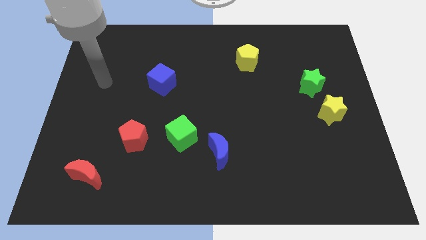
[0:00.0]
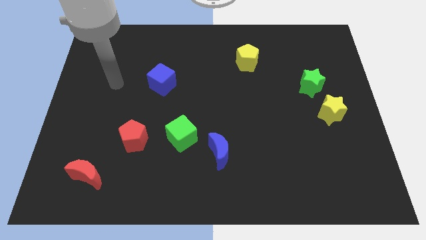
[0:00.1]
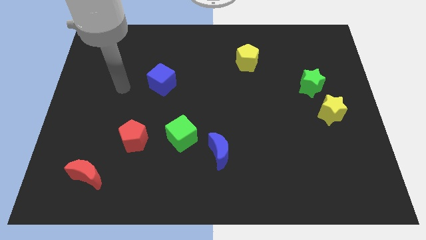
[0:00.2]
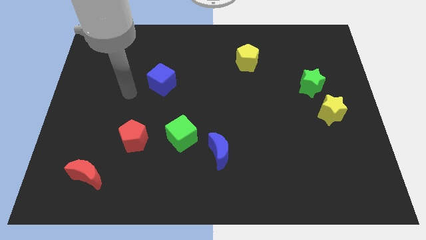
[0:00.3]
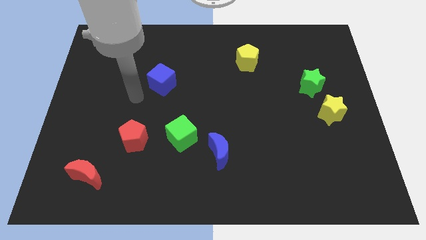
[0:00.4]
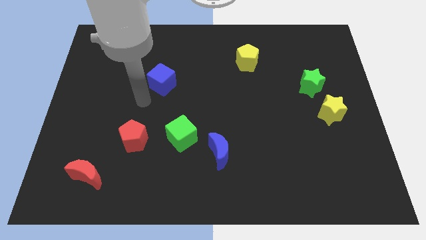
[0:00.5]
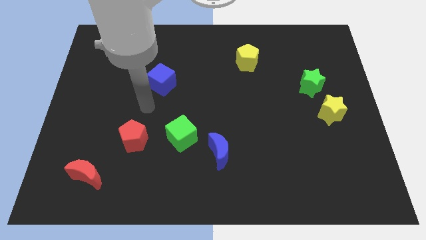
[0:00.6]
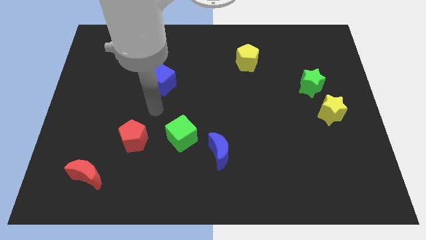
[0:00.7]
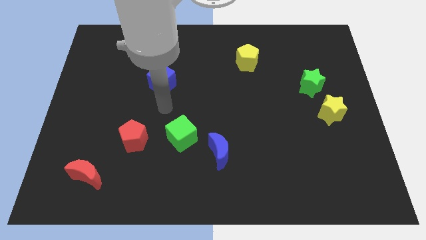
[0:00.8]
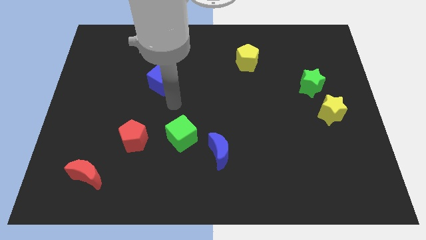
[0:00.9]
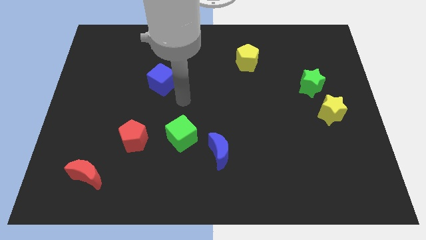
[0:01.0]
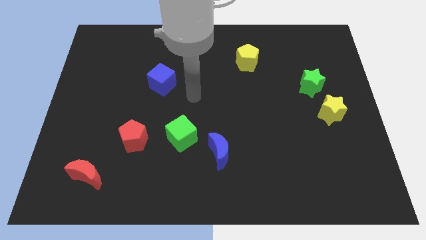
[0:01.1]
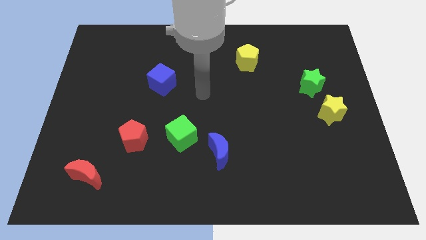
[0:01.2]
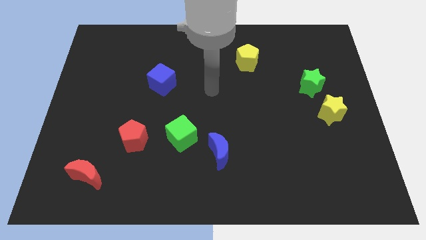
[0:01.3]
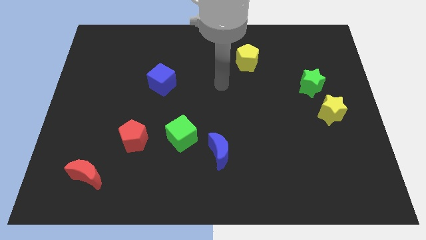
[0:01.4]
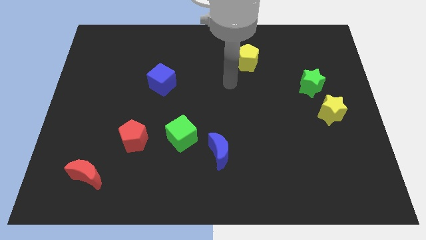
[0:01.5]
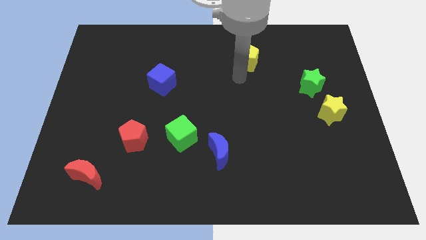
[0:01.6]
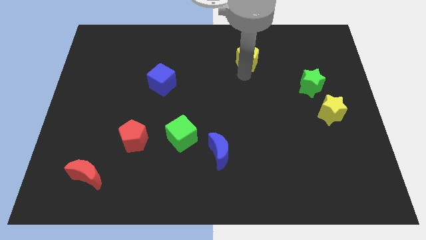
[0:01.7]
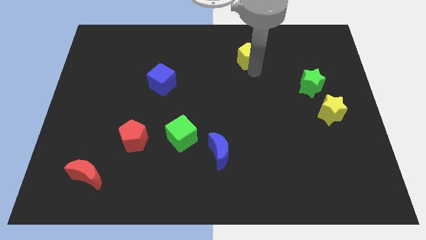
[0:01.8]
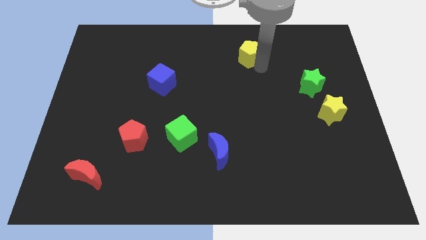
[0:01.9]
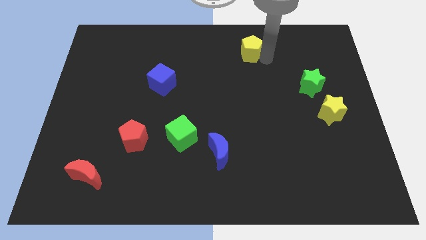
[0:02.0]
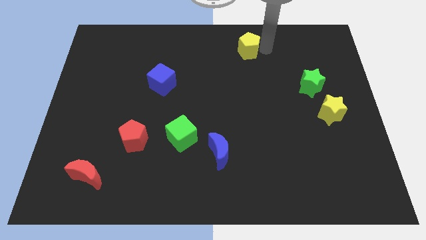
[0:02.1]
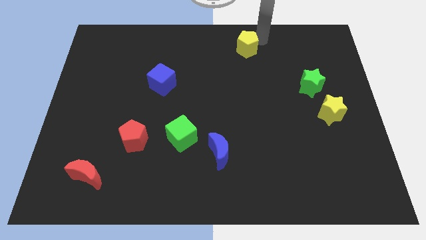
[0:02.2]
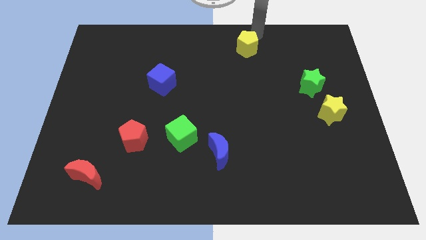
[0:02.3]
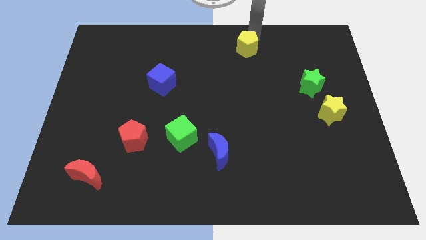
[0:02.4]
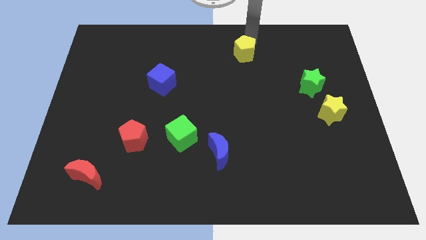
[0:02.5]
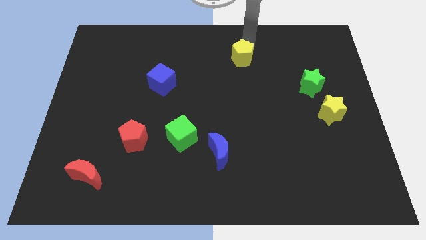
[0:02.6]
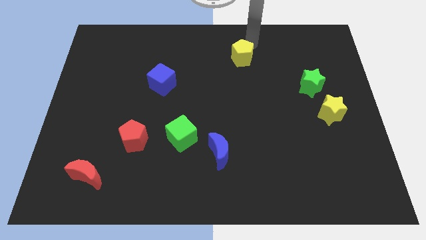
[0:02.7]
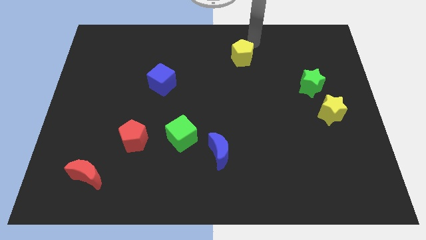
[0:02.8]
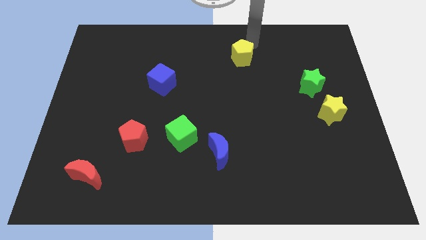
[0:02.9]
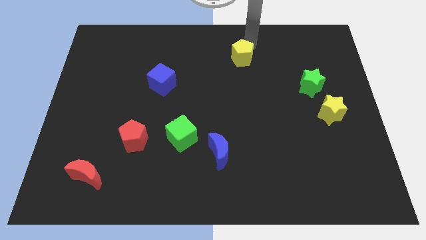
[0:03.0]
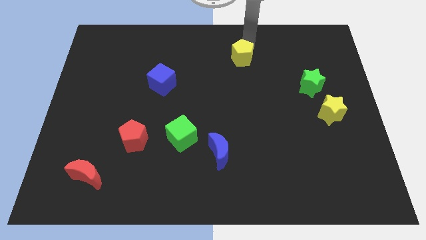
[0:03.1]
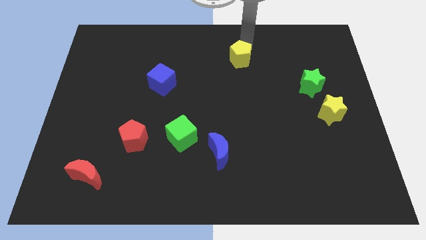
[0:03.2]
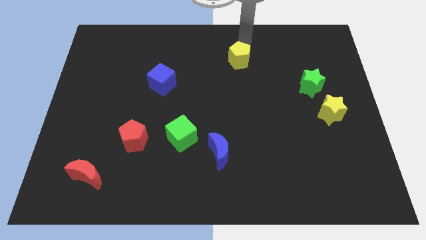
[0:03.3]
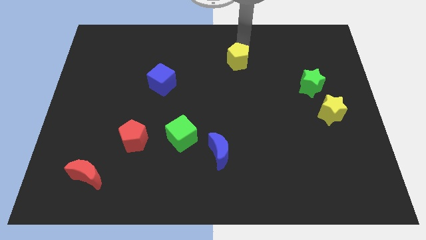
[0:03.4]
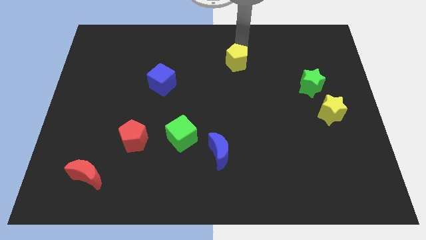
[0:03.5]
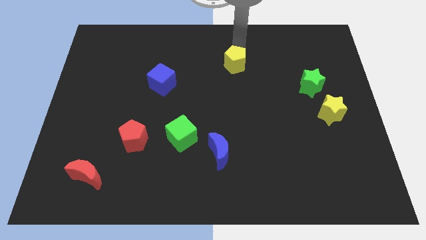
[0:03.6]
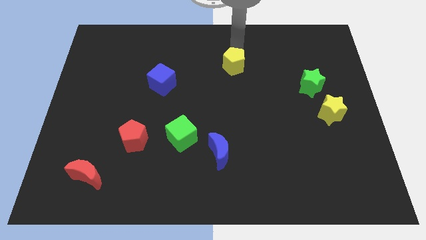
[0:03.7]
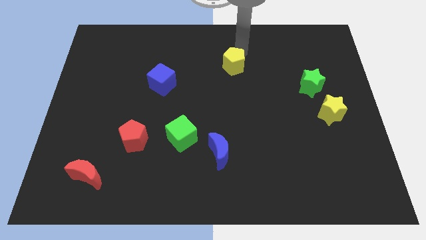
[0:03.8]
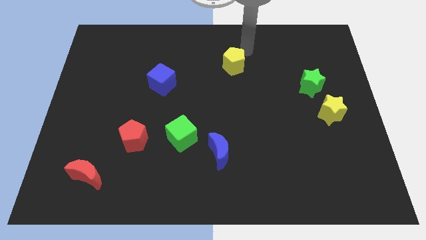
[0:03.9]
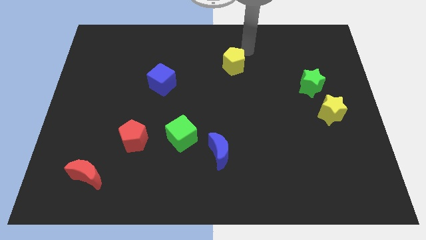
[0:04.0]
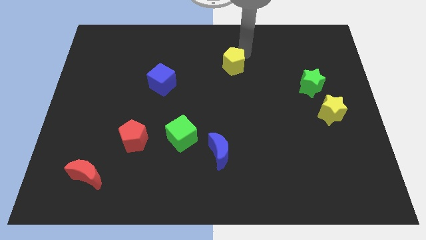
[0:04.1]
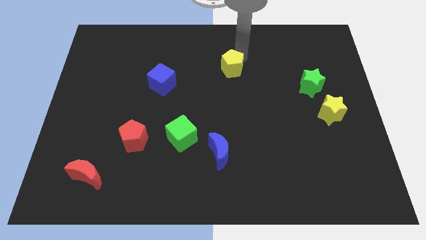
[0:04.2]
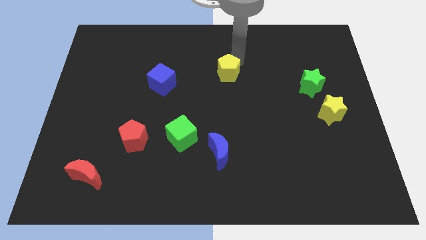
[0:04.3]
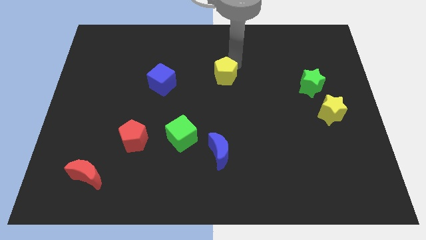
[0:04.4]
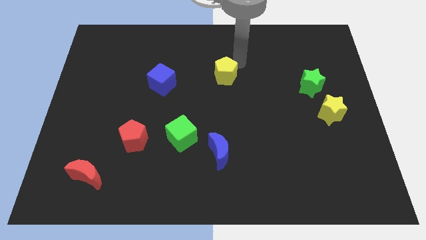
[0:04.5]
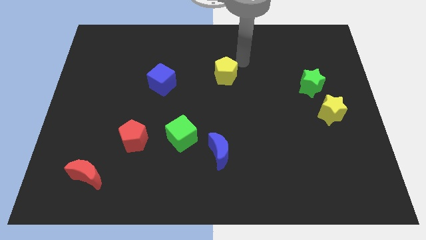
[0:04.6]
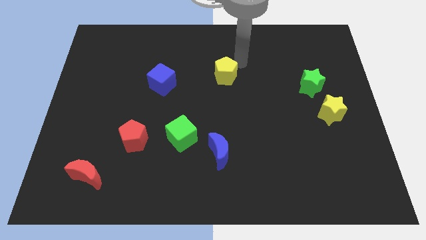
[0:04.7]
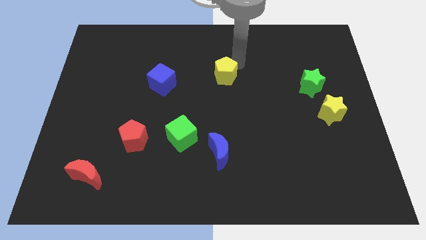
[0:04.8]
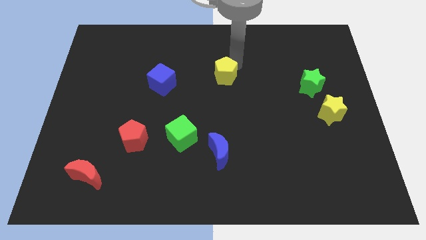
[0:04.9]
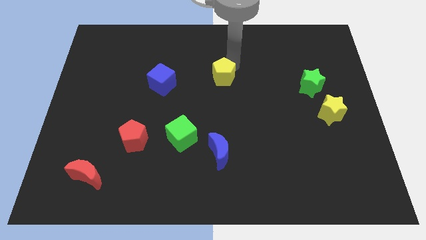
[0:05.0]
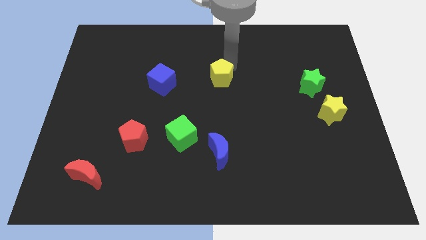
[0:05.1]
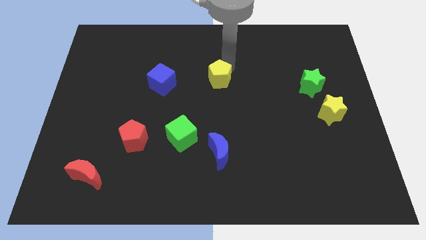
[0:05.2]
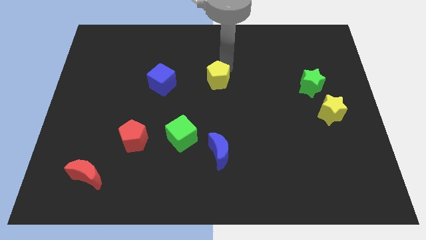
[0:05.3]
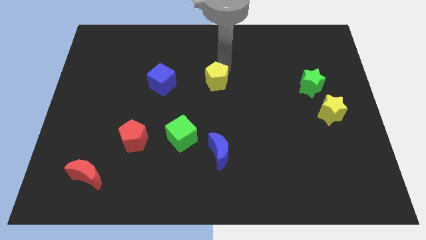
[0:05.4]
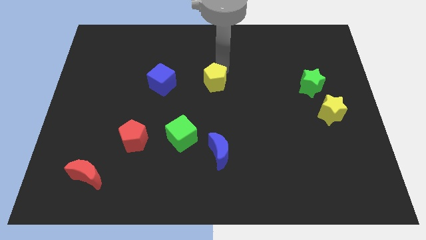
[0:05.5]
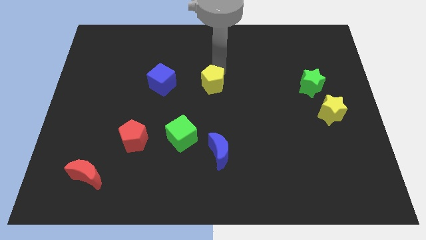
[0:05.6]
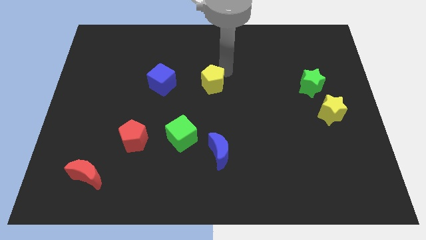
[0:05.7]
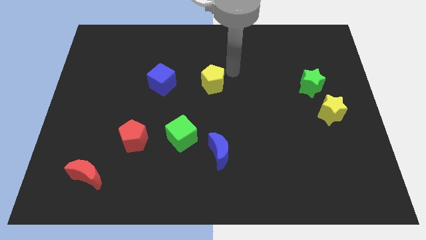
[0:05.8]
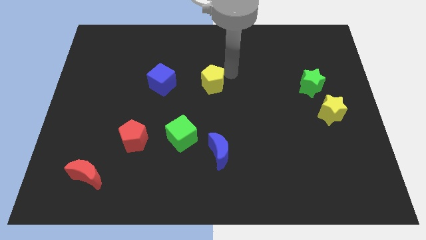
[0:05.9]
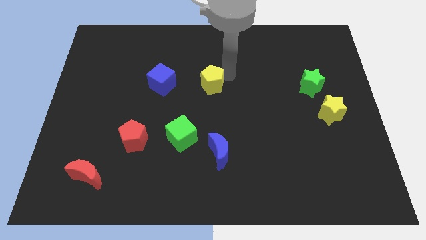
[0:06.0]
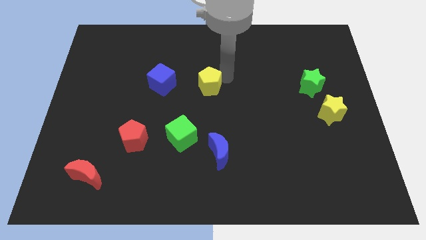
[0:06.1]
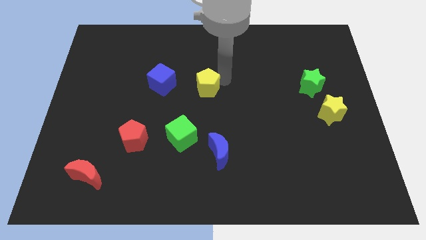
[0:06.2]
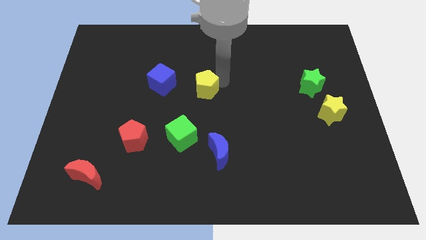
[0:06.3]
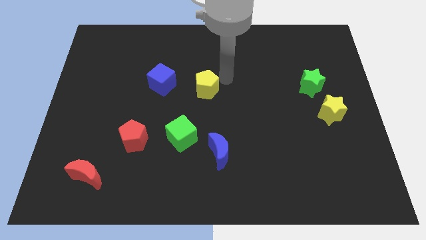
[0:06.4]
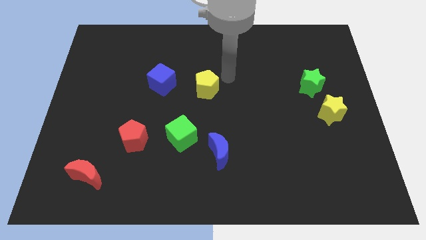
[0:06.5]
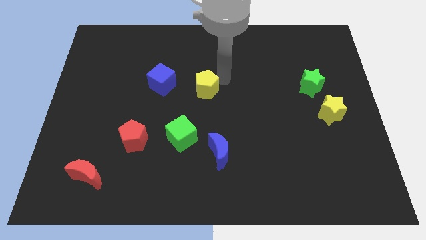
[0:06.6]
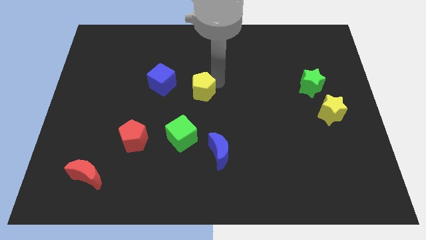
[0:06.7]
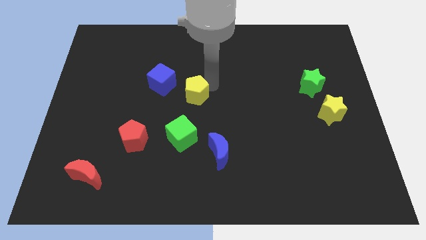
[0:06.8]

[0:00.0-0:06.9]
push the yellow pentagon diagonally down and to the right of the blue cube

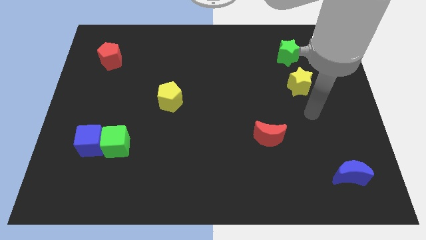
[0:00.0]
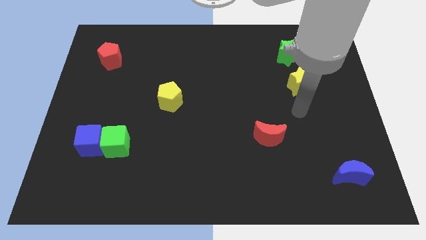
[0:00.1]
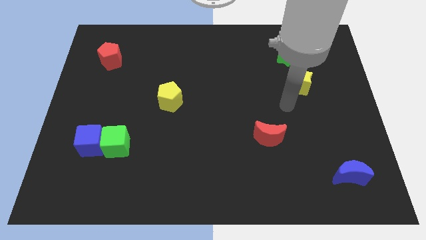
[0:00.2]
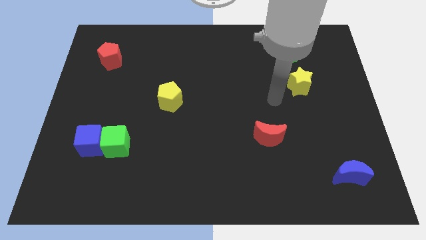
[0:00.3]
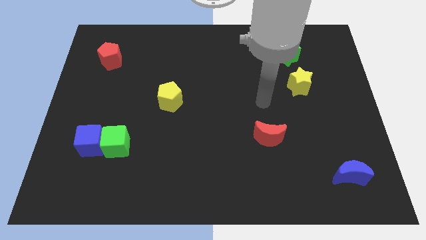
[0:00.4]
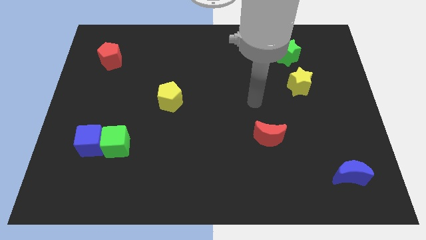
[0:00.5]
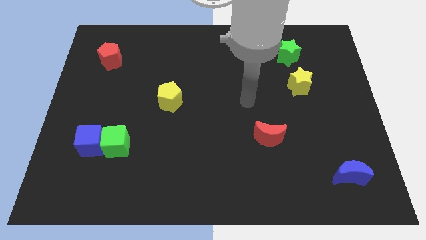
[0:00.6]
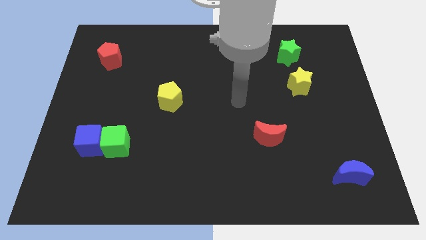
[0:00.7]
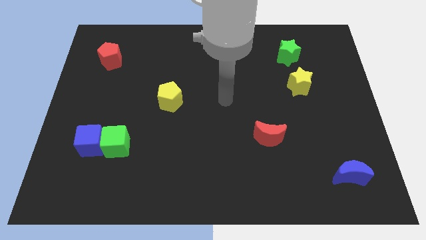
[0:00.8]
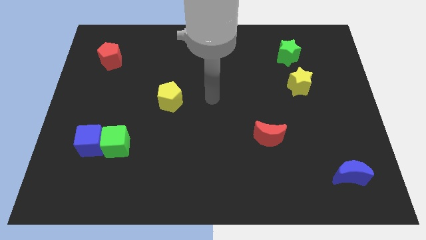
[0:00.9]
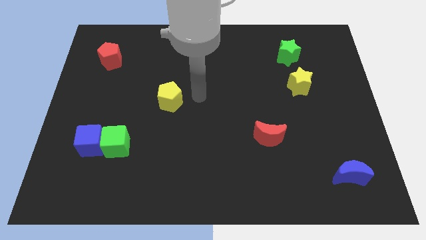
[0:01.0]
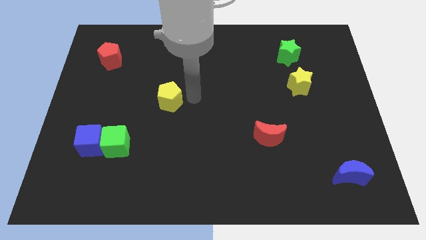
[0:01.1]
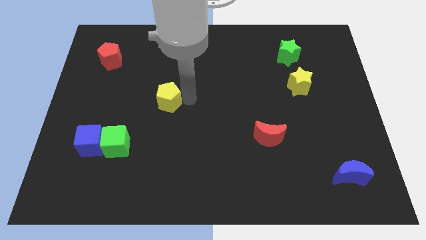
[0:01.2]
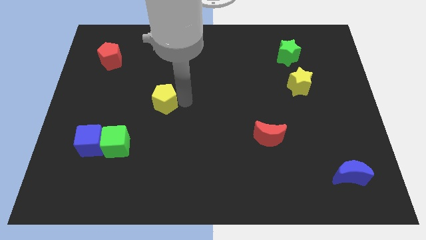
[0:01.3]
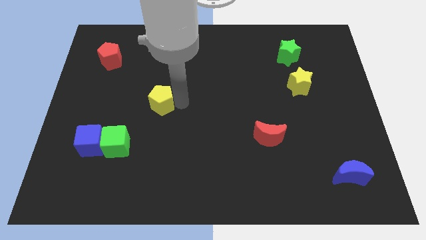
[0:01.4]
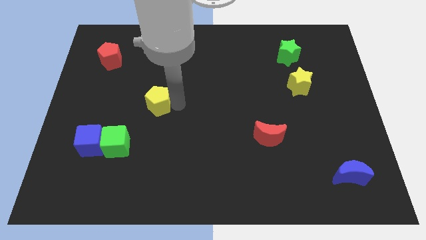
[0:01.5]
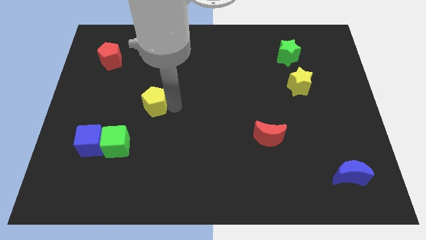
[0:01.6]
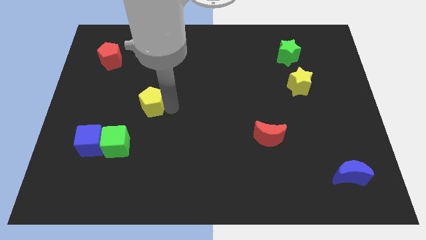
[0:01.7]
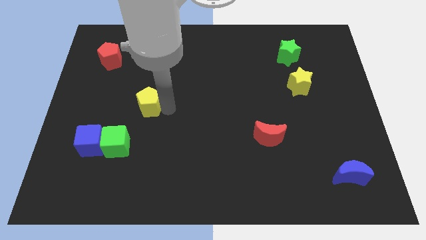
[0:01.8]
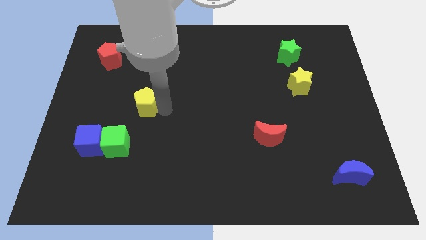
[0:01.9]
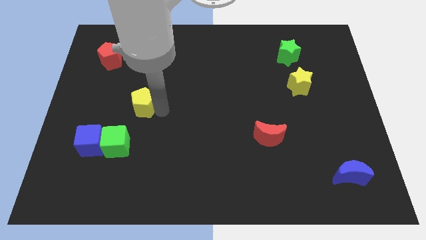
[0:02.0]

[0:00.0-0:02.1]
push the yellow pentagon to the top of the green cube
